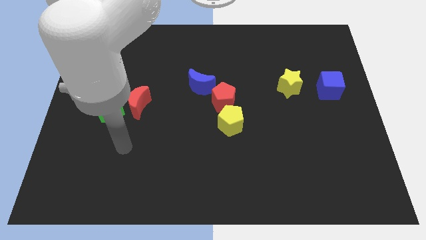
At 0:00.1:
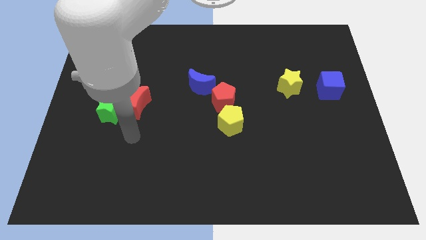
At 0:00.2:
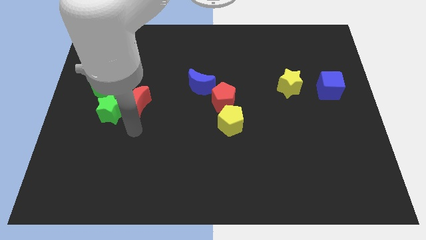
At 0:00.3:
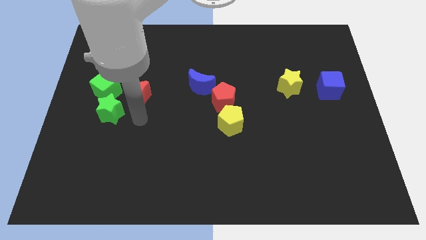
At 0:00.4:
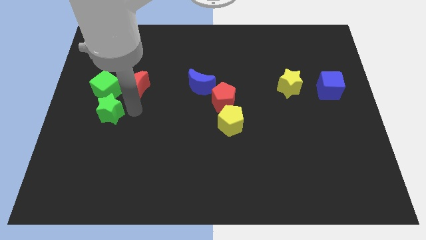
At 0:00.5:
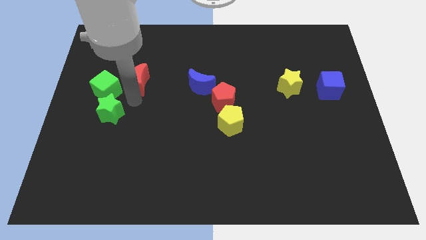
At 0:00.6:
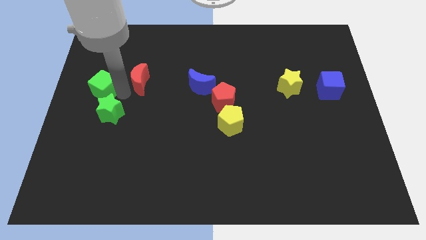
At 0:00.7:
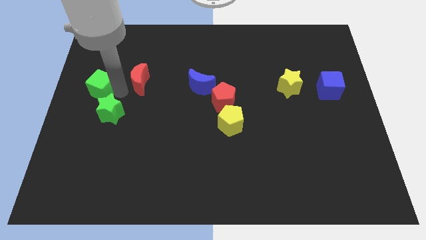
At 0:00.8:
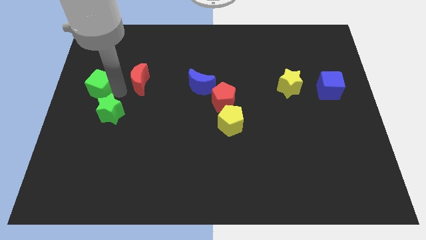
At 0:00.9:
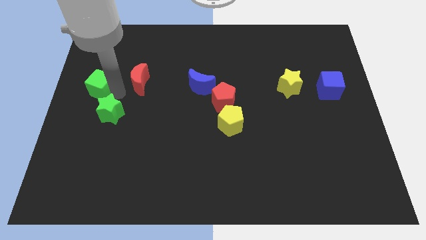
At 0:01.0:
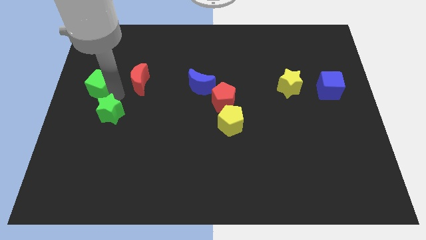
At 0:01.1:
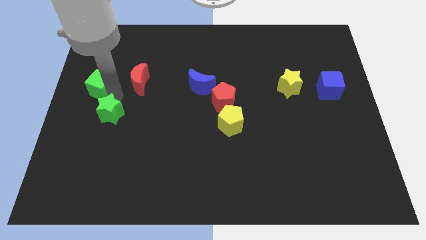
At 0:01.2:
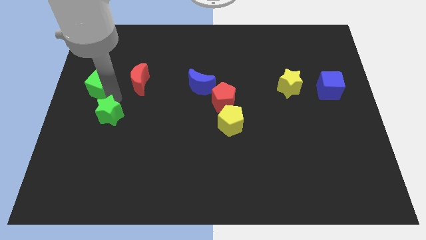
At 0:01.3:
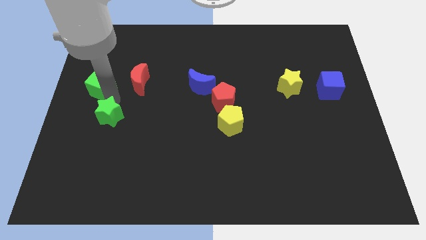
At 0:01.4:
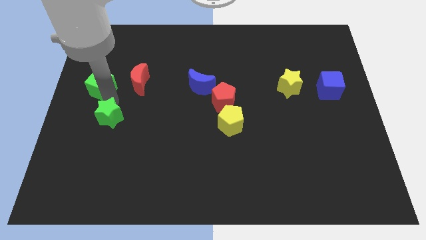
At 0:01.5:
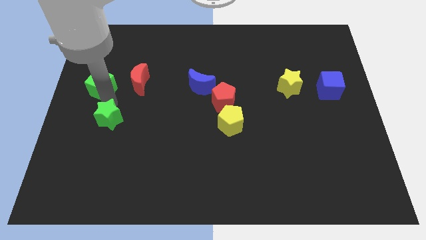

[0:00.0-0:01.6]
separate the green star from the red moon and green cube

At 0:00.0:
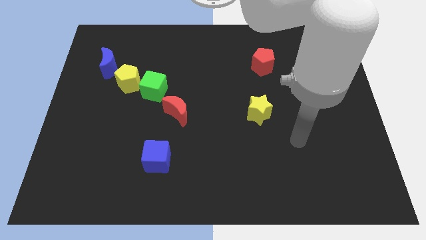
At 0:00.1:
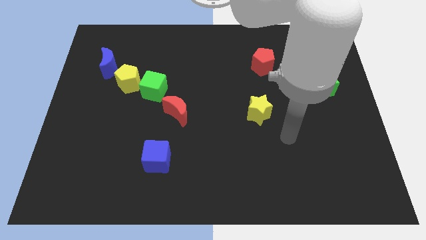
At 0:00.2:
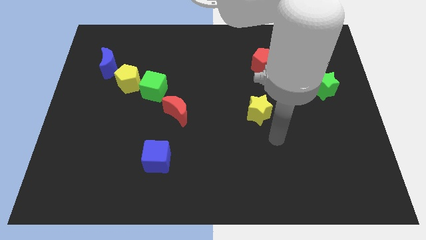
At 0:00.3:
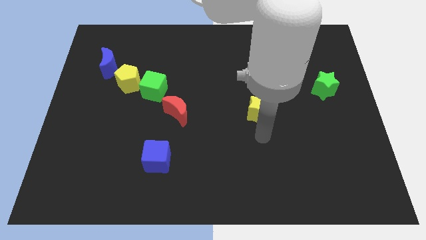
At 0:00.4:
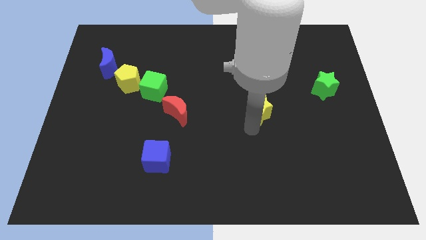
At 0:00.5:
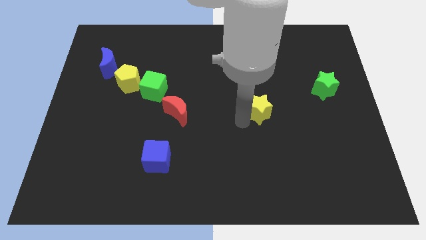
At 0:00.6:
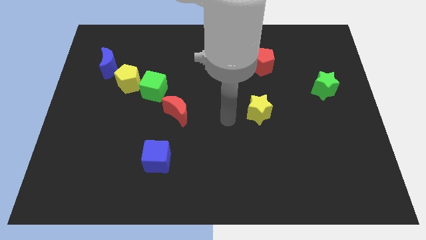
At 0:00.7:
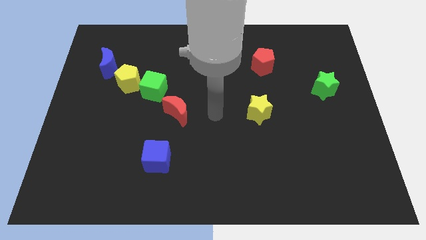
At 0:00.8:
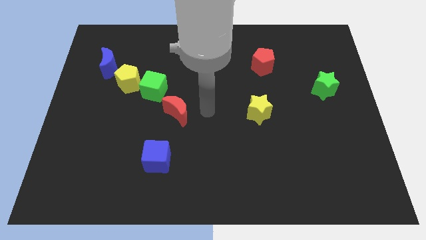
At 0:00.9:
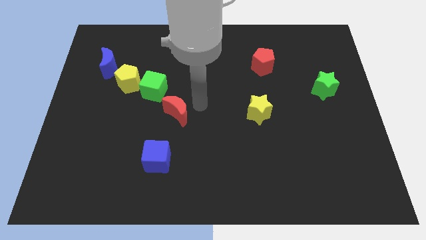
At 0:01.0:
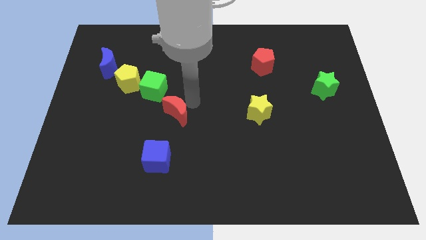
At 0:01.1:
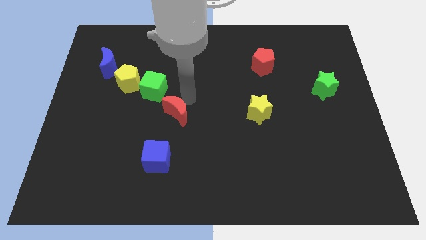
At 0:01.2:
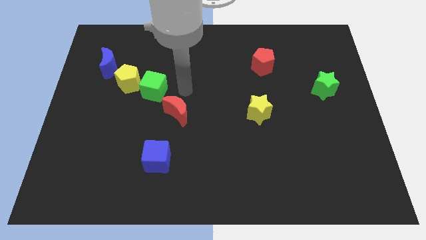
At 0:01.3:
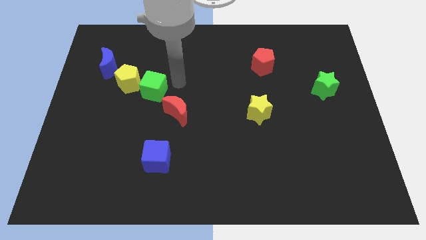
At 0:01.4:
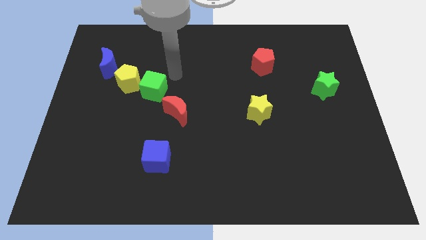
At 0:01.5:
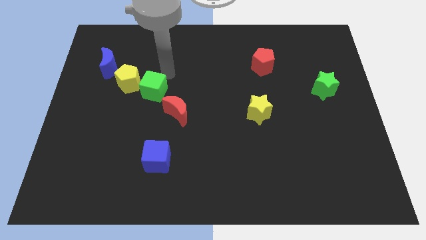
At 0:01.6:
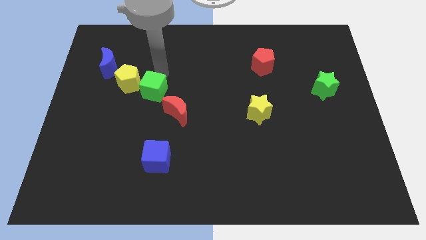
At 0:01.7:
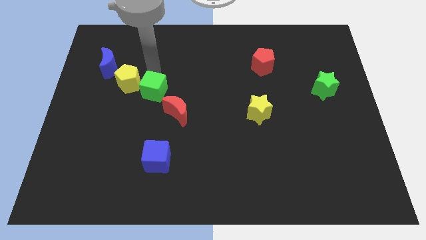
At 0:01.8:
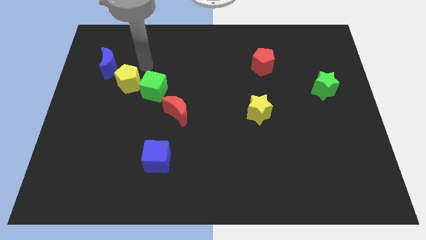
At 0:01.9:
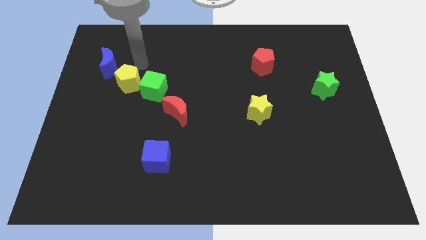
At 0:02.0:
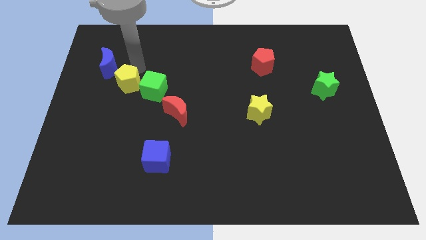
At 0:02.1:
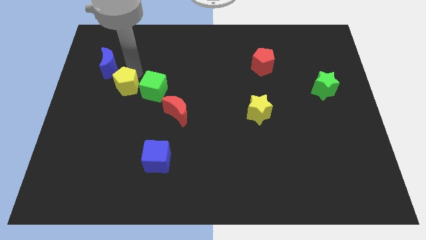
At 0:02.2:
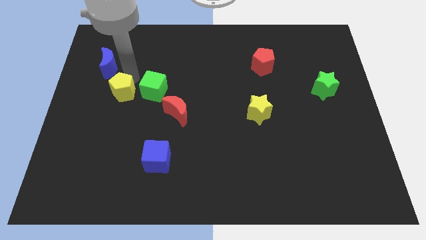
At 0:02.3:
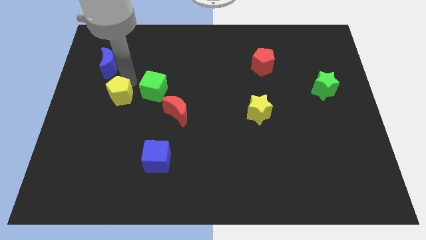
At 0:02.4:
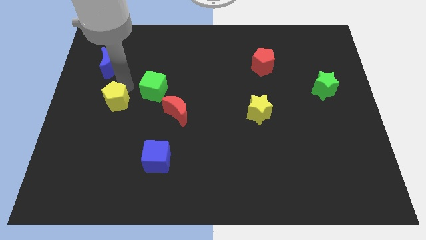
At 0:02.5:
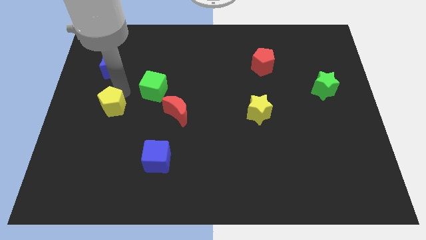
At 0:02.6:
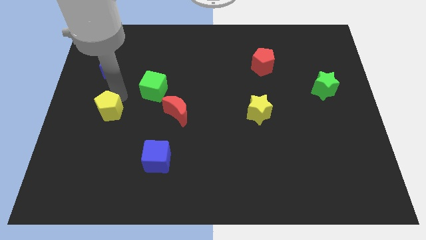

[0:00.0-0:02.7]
separate the yellow pentagon from the green cube and blue moon

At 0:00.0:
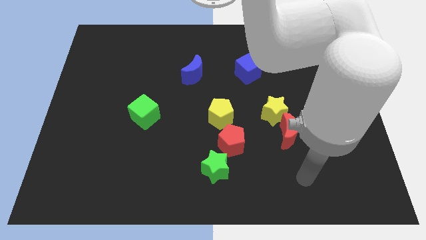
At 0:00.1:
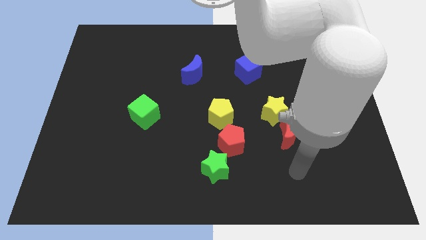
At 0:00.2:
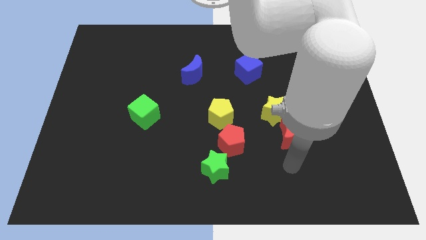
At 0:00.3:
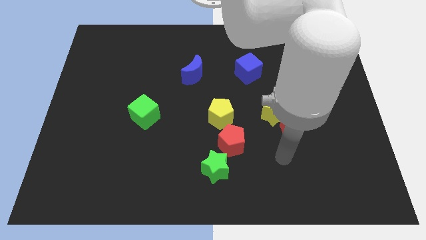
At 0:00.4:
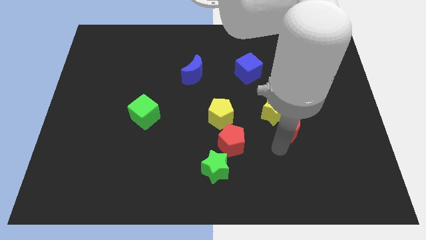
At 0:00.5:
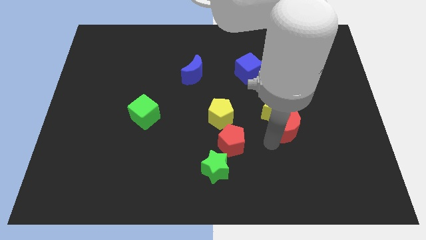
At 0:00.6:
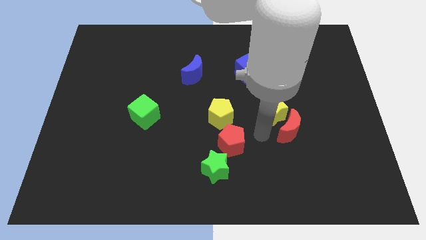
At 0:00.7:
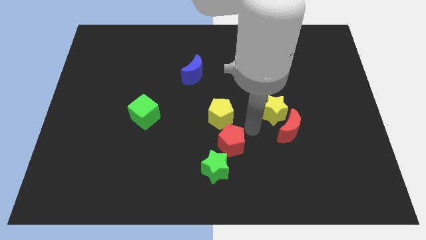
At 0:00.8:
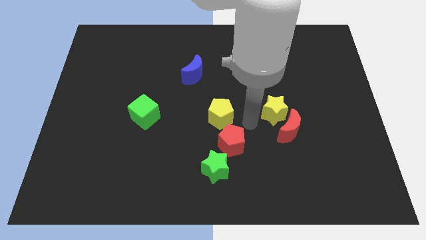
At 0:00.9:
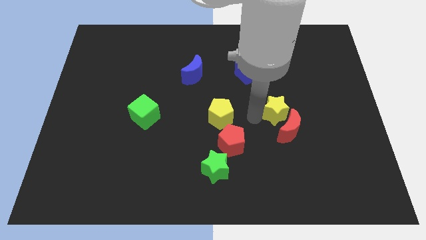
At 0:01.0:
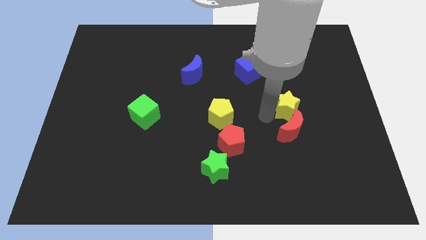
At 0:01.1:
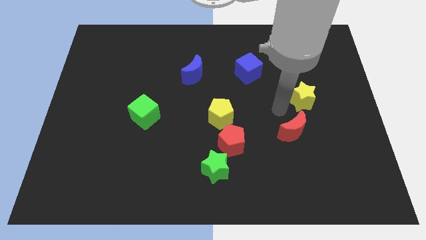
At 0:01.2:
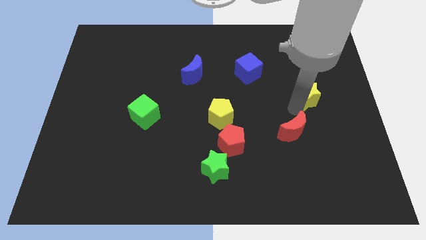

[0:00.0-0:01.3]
move the red moon away from the yellow star

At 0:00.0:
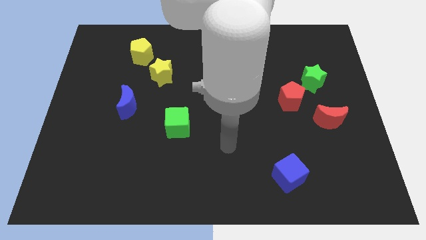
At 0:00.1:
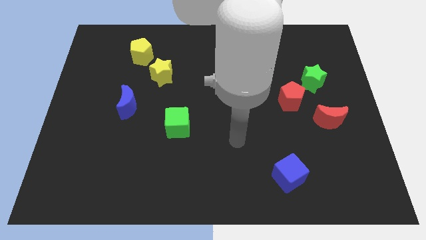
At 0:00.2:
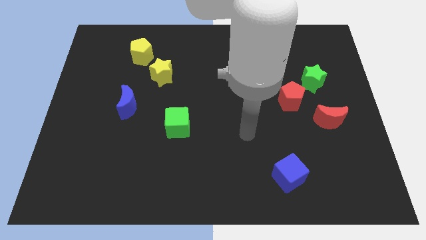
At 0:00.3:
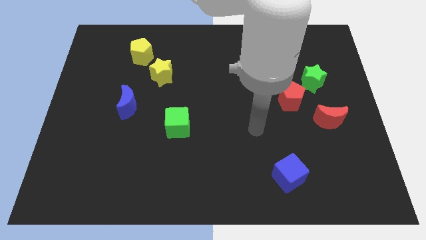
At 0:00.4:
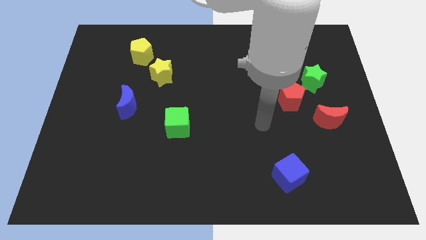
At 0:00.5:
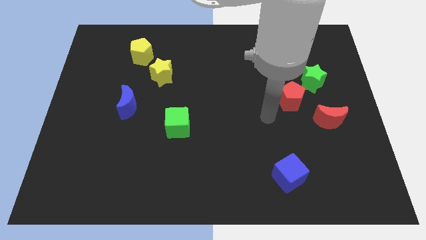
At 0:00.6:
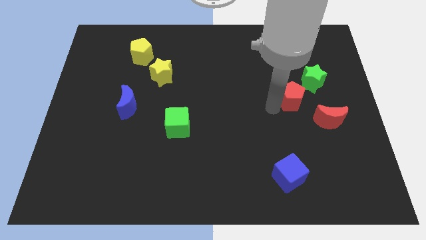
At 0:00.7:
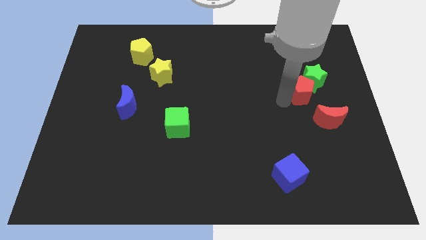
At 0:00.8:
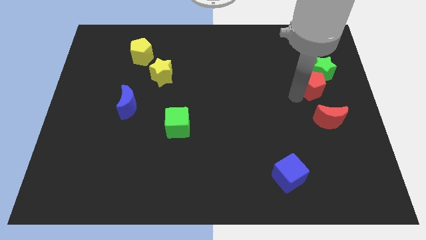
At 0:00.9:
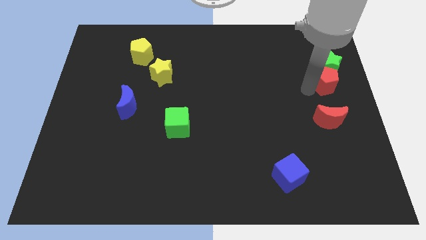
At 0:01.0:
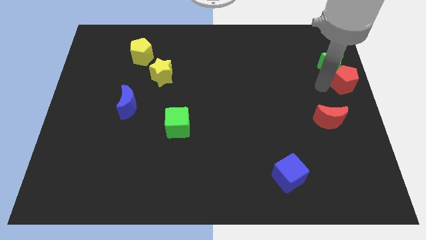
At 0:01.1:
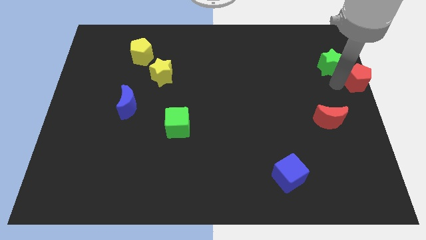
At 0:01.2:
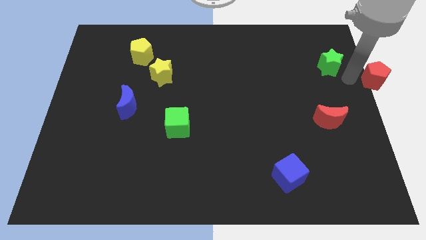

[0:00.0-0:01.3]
pull the green star apart from the red pentagon

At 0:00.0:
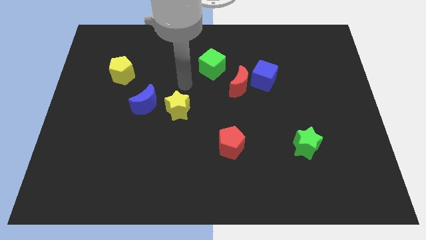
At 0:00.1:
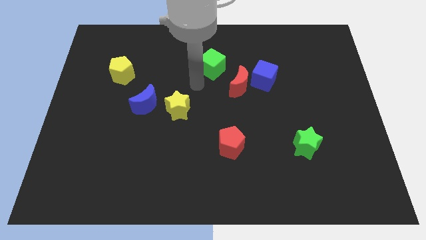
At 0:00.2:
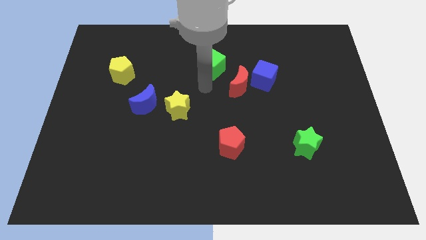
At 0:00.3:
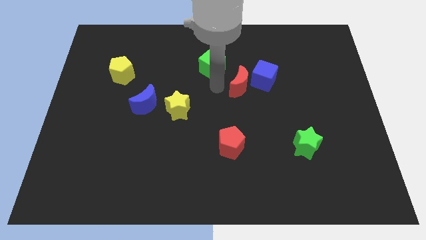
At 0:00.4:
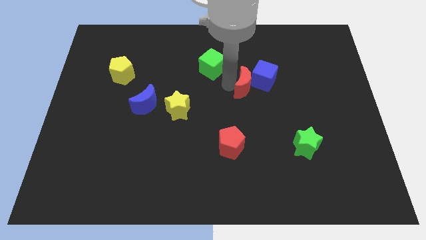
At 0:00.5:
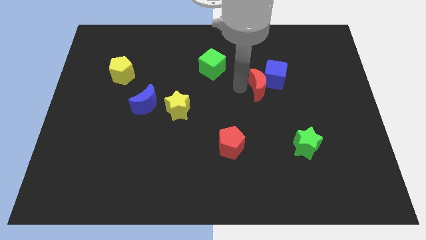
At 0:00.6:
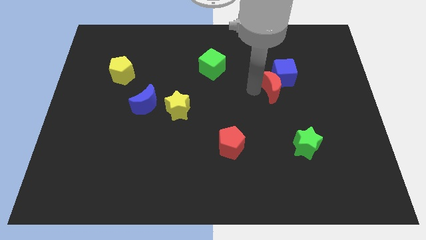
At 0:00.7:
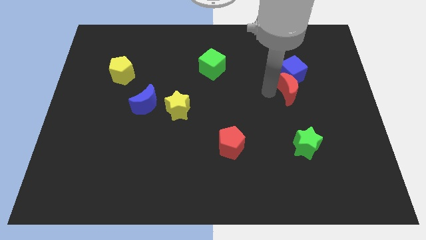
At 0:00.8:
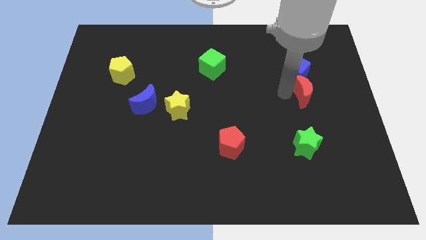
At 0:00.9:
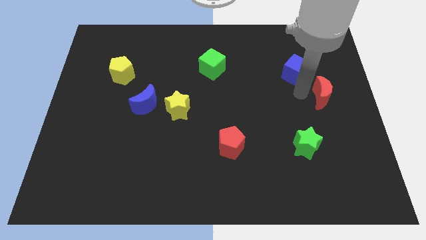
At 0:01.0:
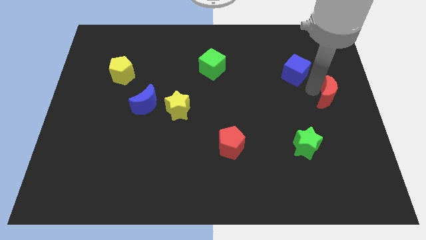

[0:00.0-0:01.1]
pull the blue cube apart from the red moon

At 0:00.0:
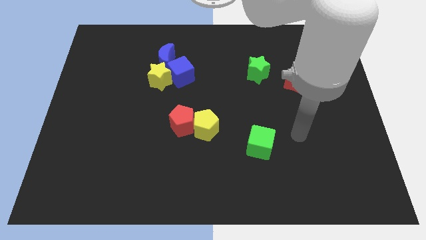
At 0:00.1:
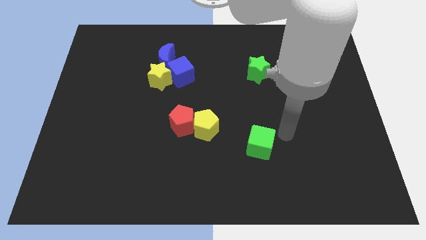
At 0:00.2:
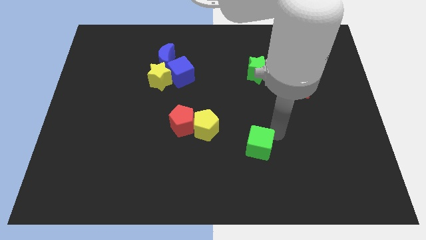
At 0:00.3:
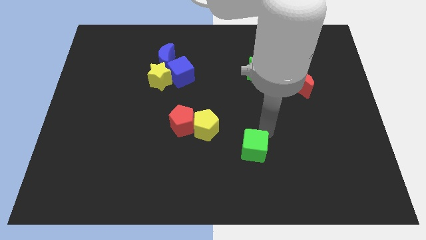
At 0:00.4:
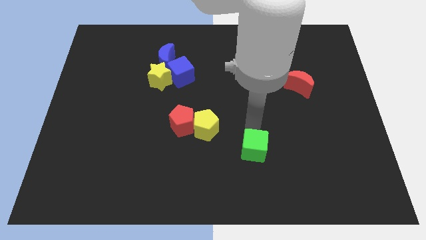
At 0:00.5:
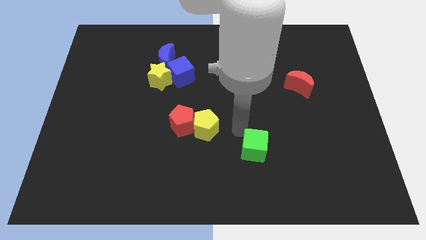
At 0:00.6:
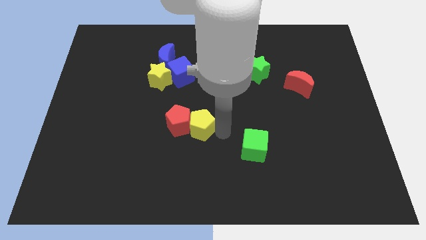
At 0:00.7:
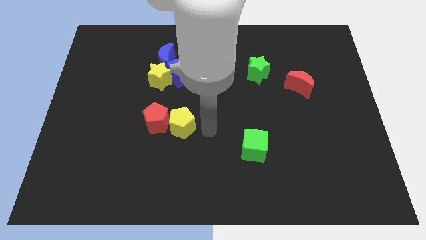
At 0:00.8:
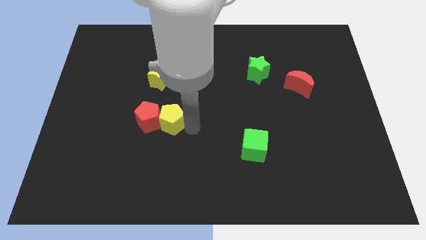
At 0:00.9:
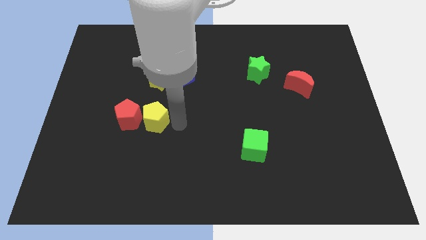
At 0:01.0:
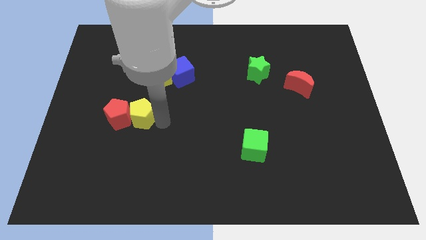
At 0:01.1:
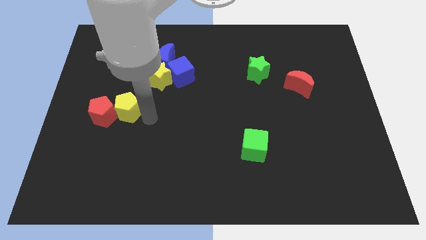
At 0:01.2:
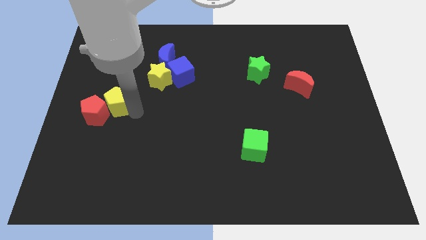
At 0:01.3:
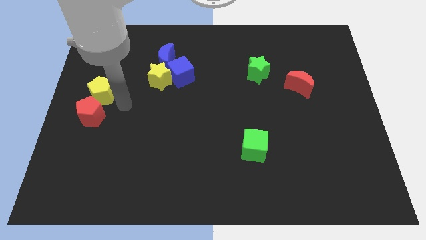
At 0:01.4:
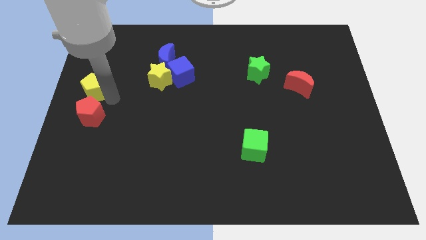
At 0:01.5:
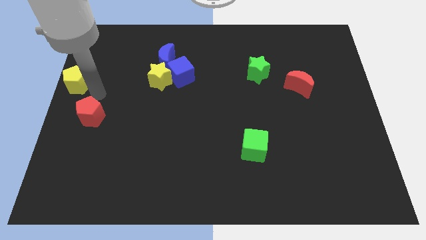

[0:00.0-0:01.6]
move the red pentagon away from the yellow pentagon
